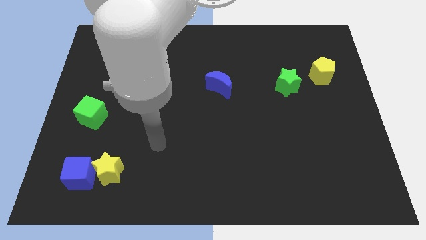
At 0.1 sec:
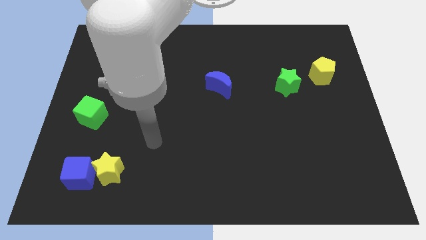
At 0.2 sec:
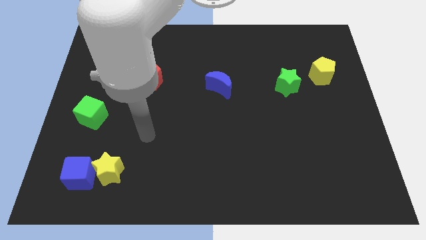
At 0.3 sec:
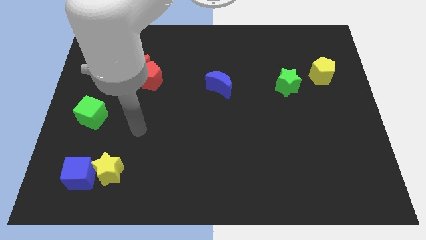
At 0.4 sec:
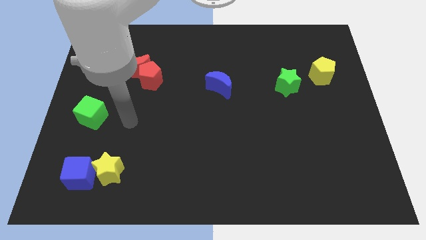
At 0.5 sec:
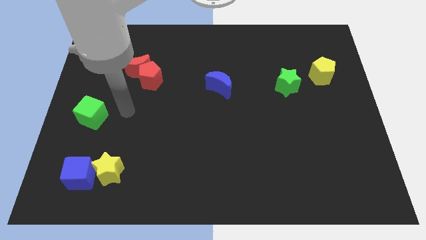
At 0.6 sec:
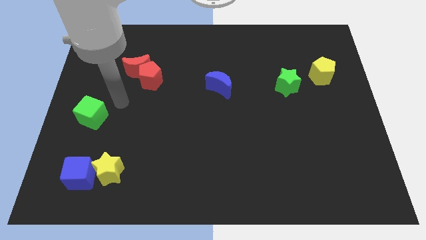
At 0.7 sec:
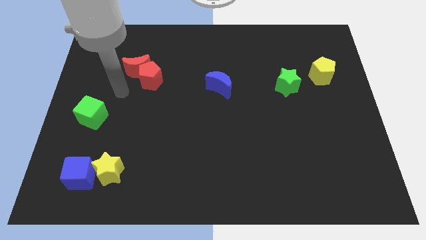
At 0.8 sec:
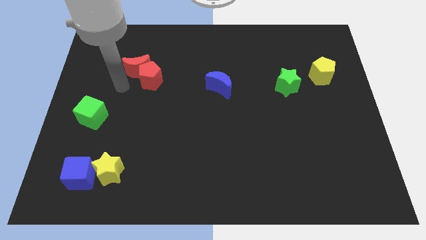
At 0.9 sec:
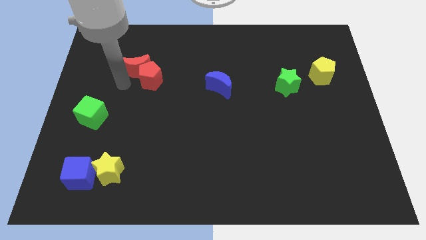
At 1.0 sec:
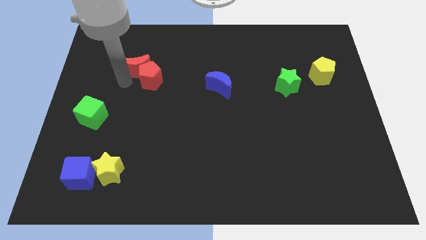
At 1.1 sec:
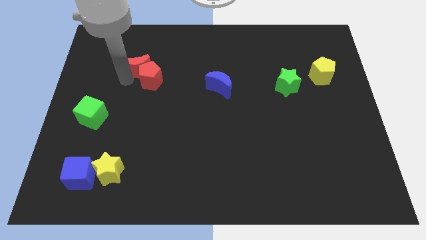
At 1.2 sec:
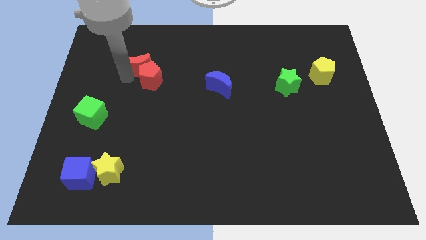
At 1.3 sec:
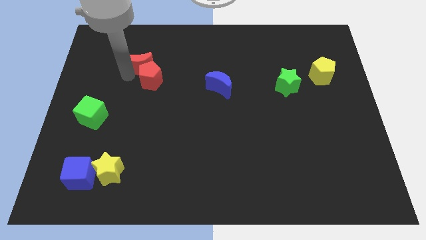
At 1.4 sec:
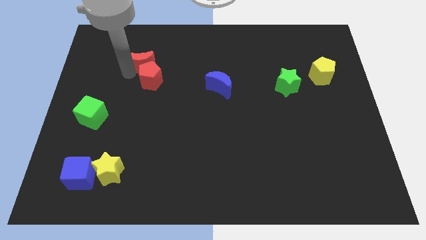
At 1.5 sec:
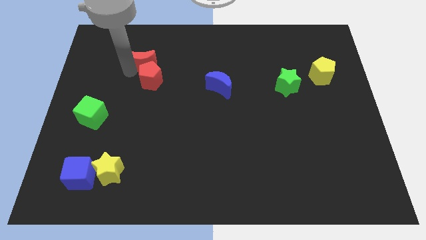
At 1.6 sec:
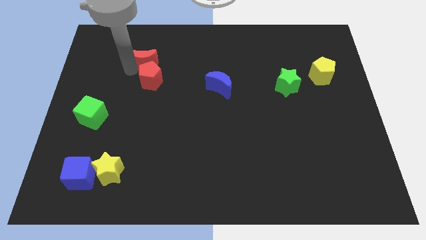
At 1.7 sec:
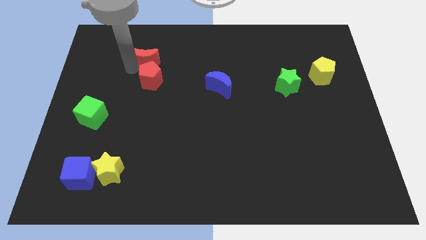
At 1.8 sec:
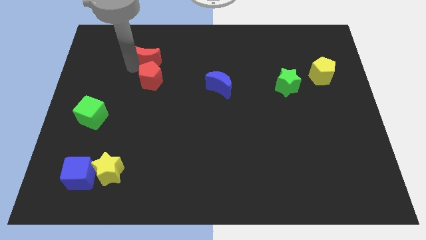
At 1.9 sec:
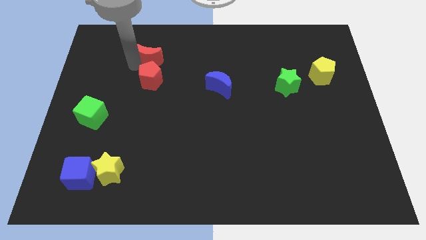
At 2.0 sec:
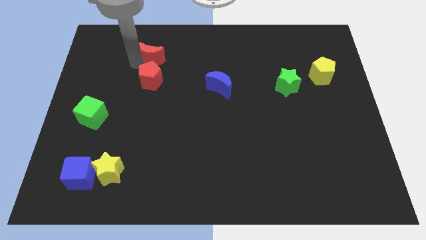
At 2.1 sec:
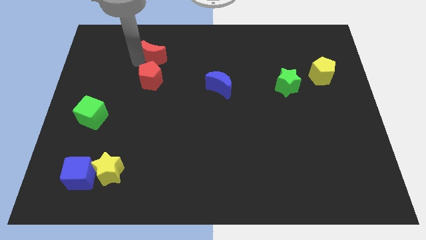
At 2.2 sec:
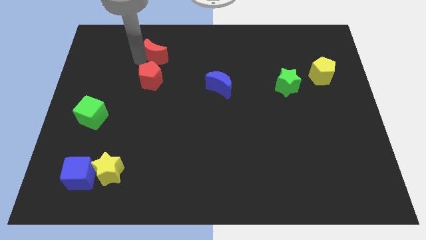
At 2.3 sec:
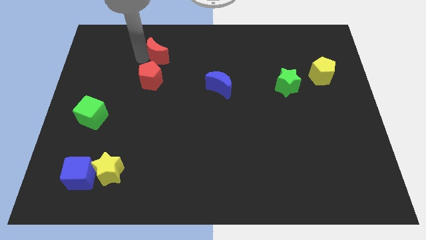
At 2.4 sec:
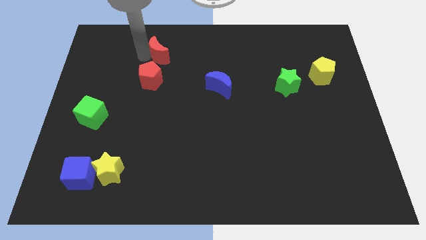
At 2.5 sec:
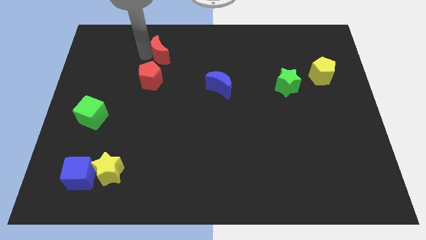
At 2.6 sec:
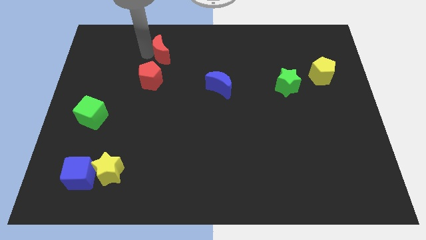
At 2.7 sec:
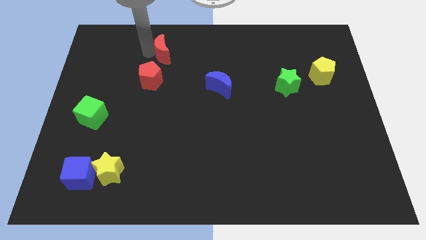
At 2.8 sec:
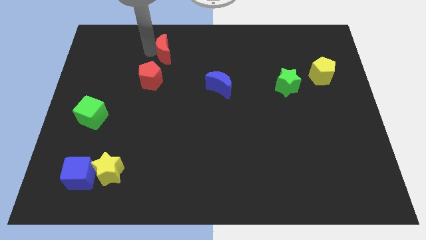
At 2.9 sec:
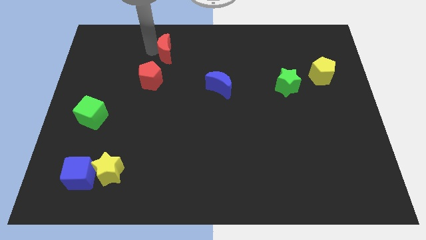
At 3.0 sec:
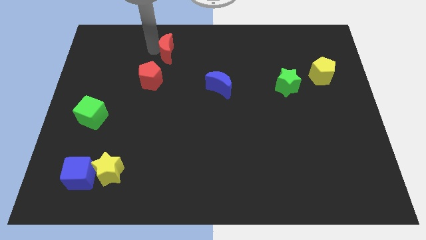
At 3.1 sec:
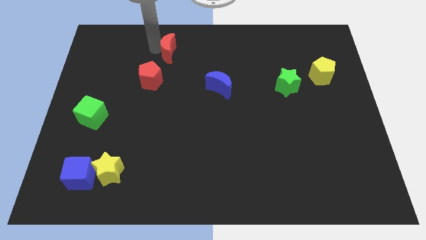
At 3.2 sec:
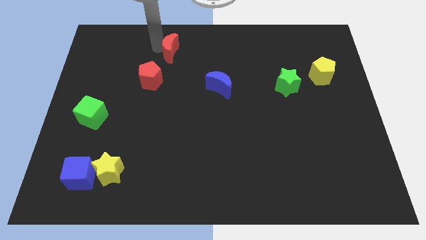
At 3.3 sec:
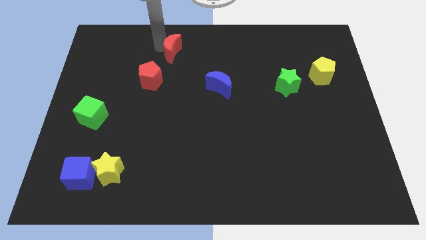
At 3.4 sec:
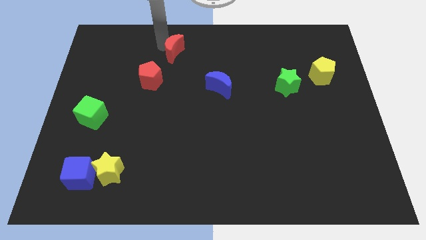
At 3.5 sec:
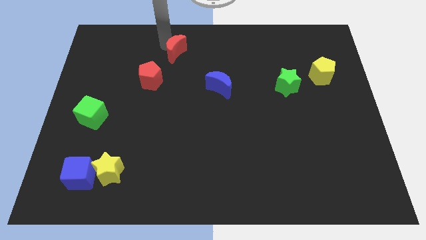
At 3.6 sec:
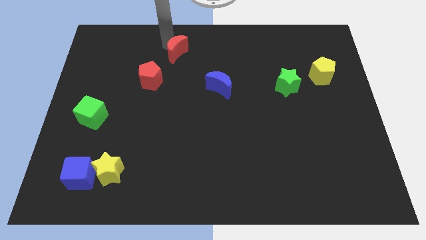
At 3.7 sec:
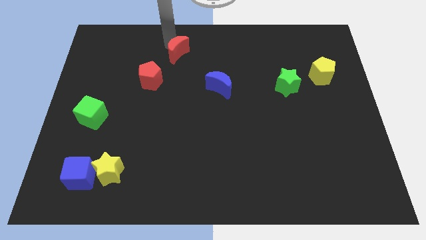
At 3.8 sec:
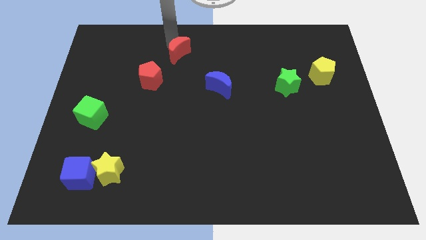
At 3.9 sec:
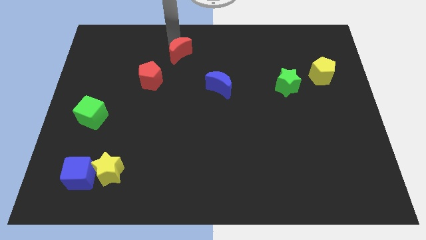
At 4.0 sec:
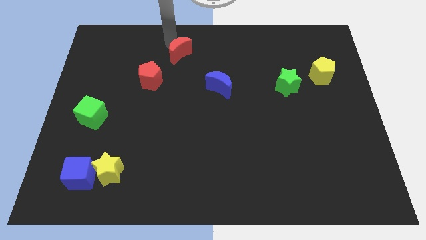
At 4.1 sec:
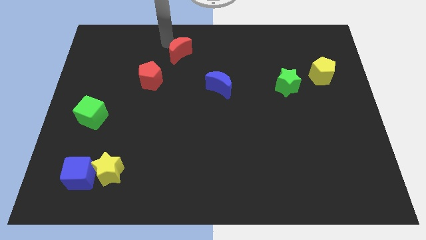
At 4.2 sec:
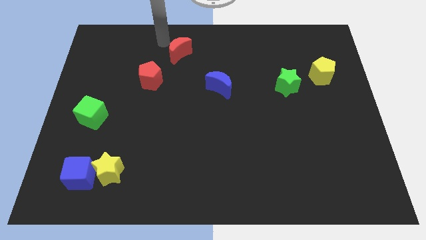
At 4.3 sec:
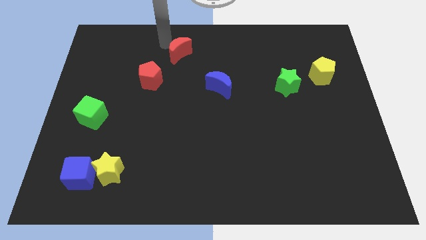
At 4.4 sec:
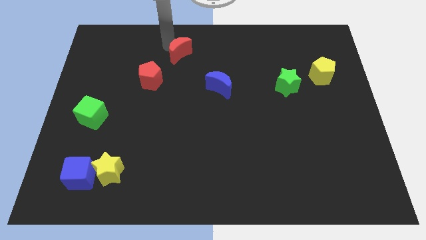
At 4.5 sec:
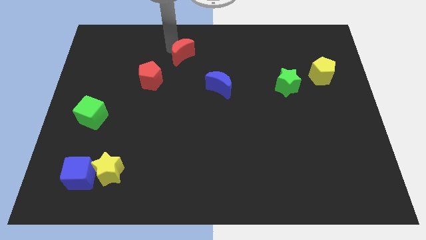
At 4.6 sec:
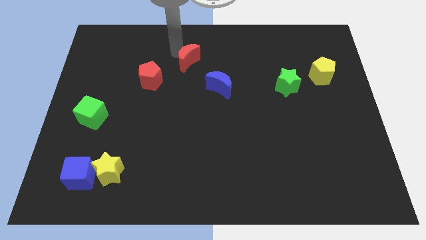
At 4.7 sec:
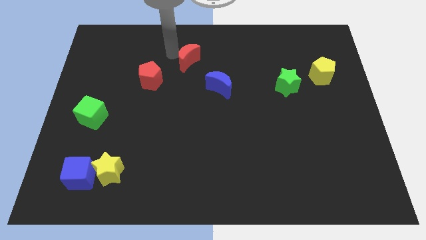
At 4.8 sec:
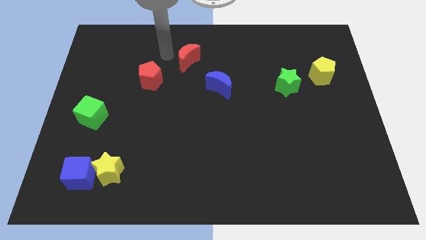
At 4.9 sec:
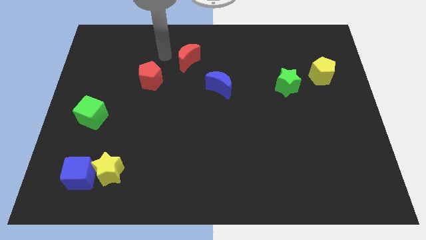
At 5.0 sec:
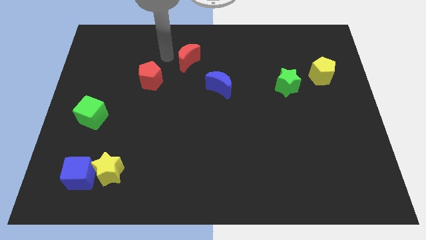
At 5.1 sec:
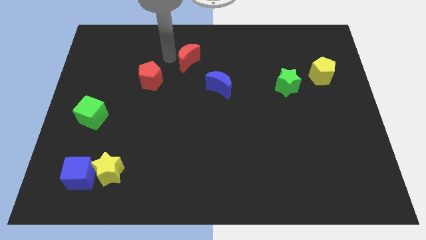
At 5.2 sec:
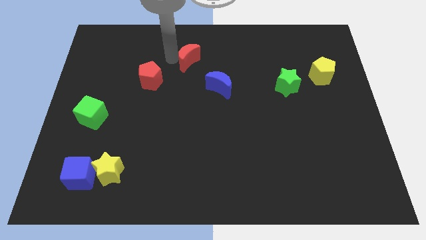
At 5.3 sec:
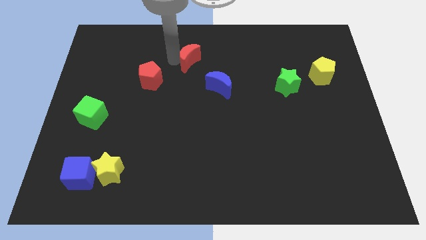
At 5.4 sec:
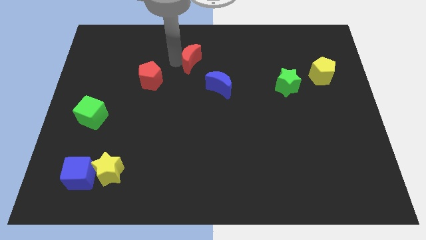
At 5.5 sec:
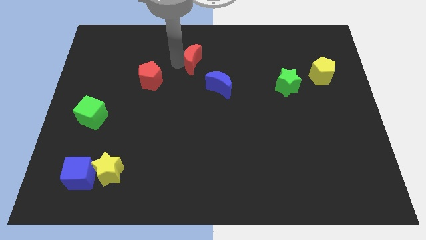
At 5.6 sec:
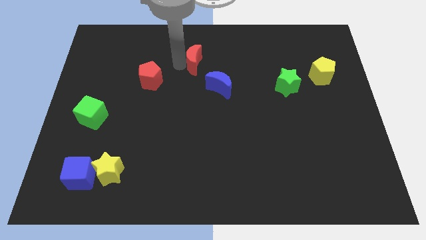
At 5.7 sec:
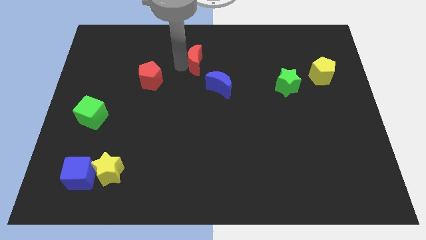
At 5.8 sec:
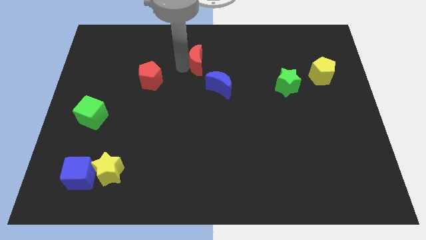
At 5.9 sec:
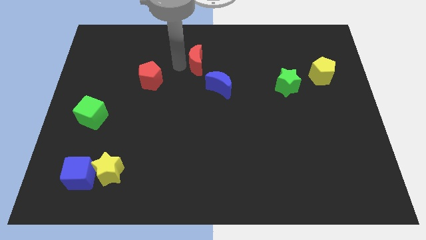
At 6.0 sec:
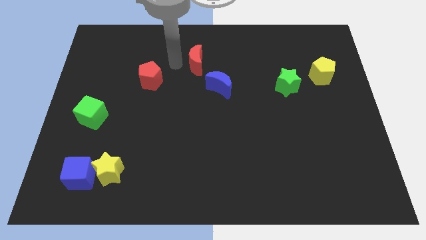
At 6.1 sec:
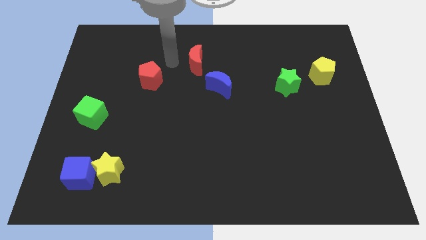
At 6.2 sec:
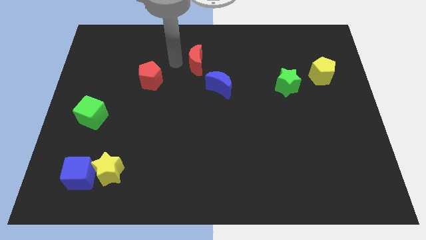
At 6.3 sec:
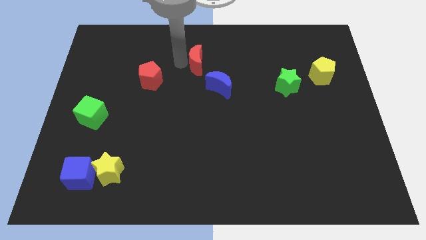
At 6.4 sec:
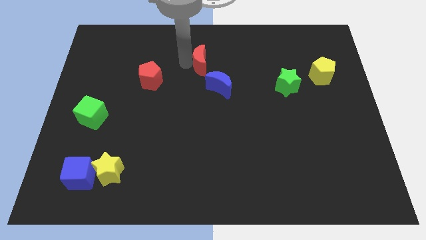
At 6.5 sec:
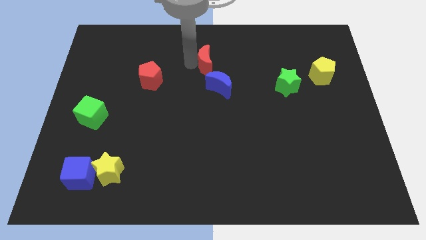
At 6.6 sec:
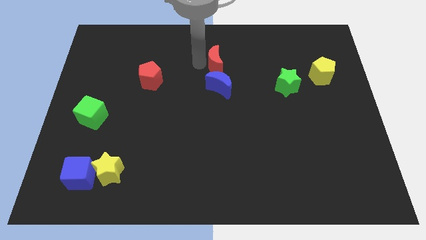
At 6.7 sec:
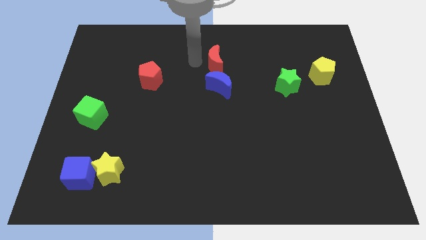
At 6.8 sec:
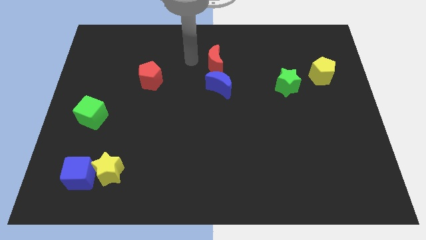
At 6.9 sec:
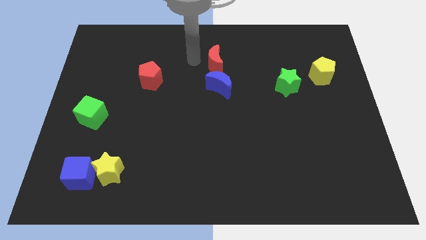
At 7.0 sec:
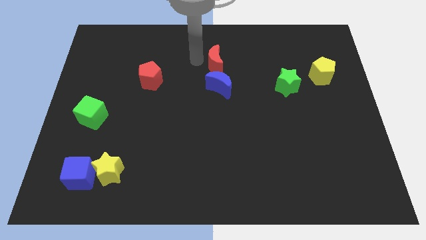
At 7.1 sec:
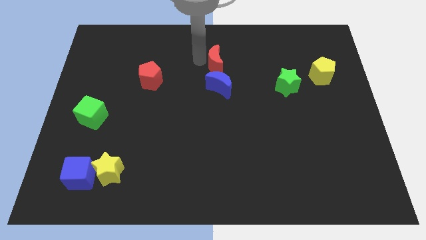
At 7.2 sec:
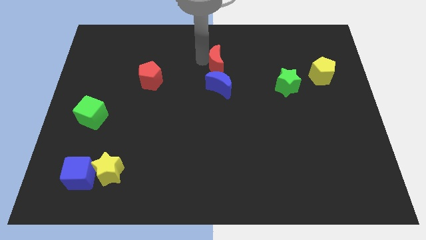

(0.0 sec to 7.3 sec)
push the red moon to the right

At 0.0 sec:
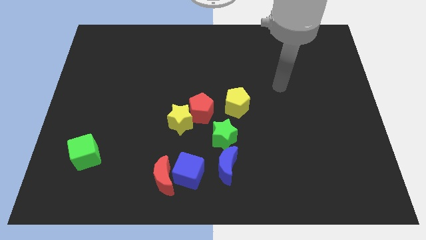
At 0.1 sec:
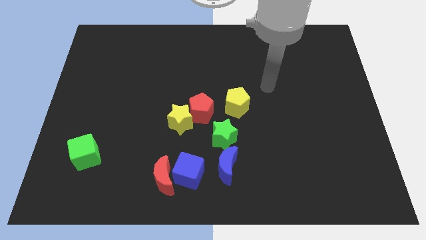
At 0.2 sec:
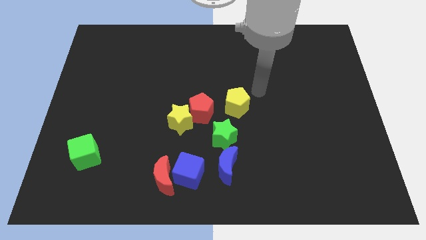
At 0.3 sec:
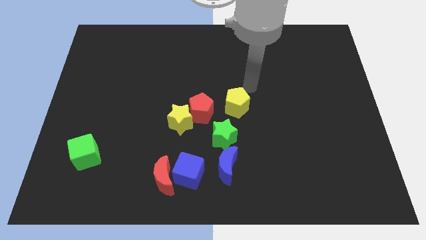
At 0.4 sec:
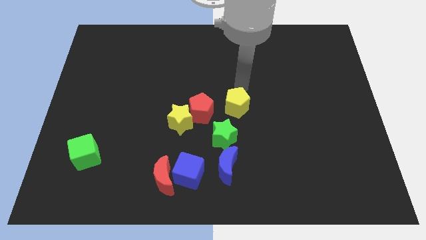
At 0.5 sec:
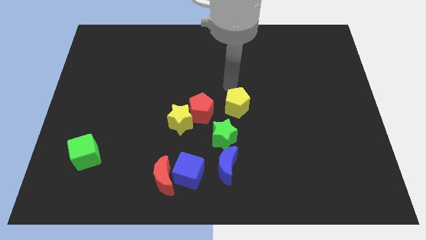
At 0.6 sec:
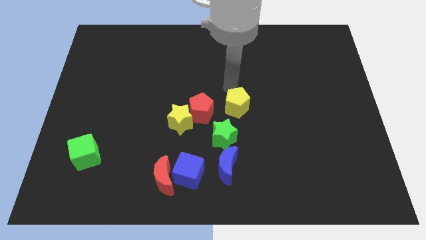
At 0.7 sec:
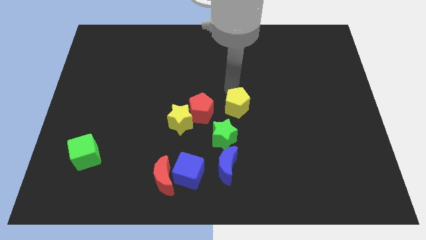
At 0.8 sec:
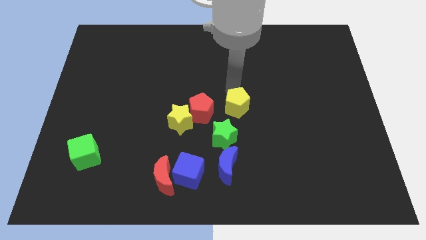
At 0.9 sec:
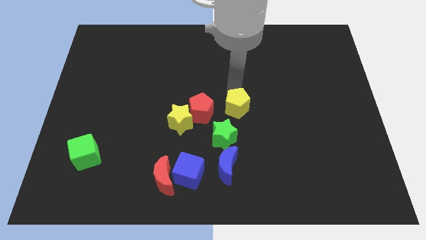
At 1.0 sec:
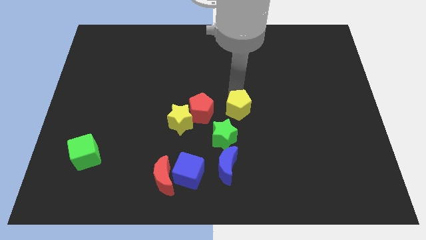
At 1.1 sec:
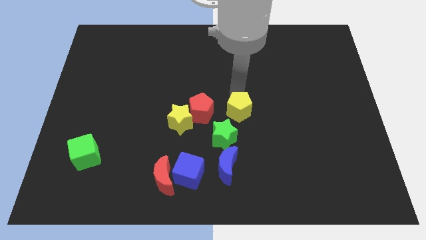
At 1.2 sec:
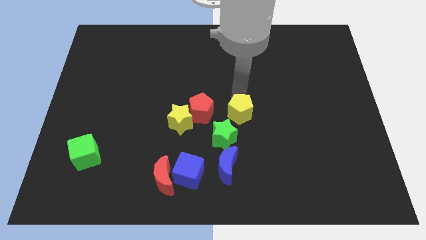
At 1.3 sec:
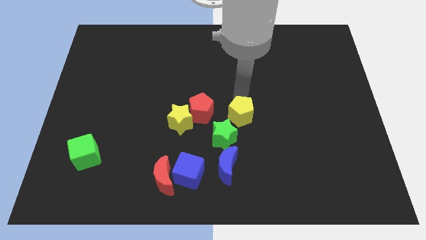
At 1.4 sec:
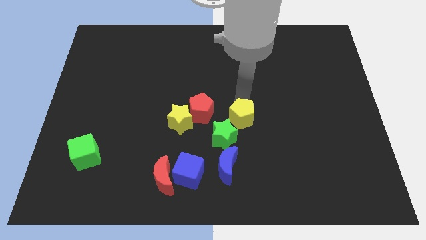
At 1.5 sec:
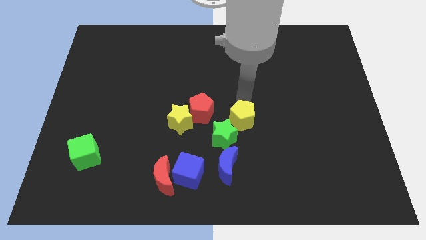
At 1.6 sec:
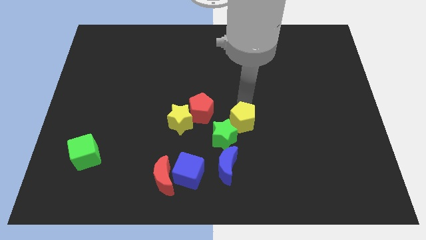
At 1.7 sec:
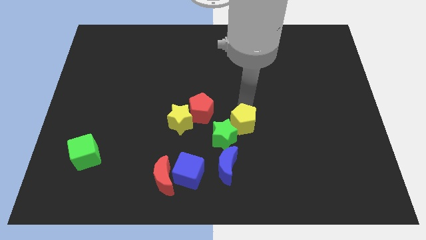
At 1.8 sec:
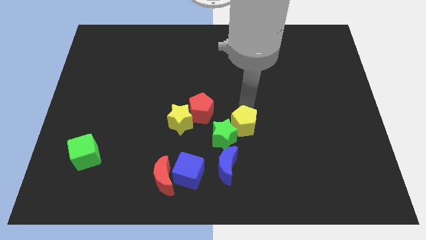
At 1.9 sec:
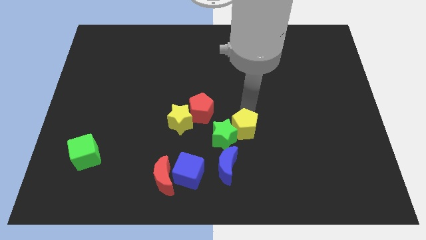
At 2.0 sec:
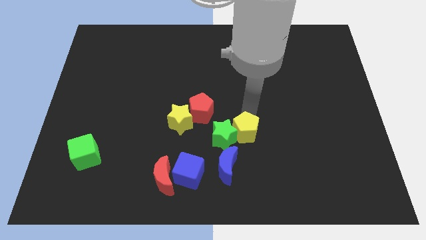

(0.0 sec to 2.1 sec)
move the yellow pentagon down a little
